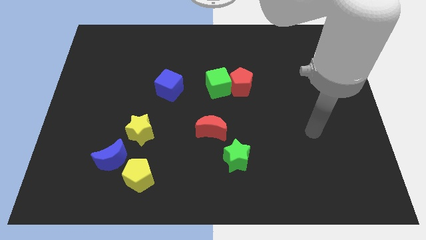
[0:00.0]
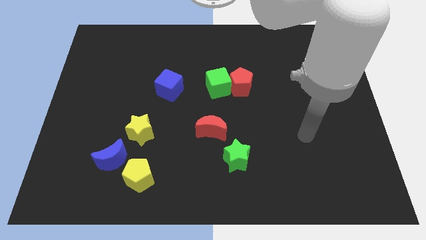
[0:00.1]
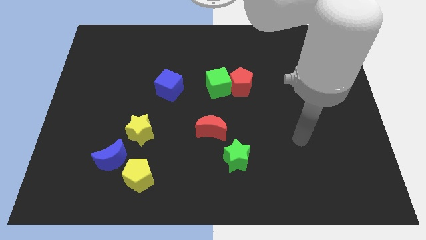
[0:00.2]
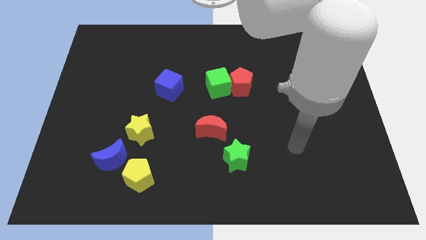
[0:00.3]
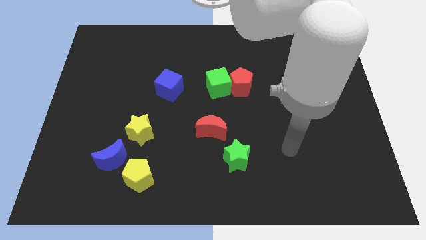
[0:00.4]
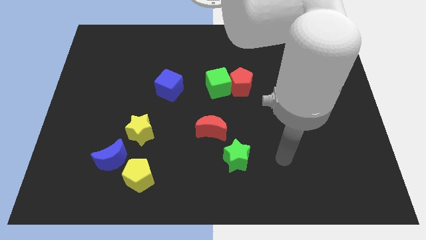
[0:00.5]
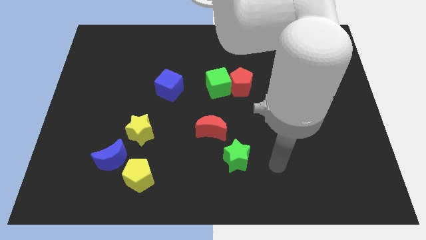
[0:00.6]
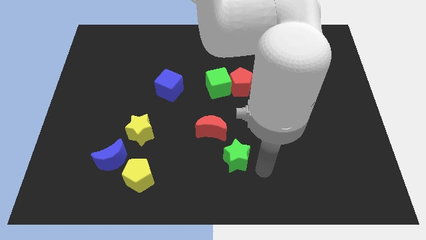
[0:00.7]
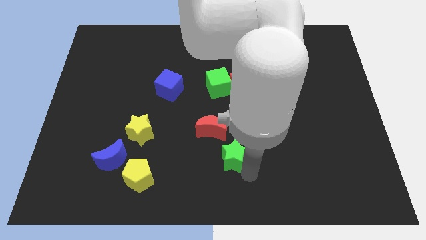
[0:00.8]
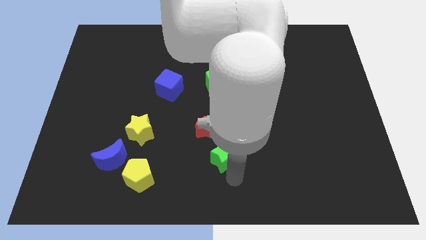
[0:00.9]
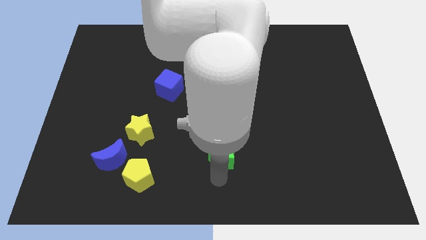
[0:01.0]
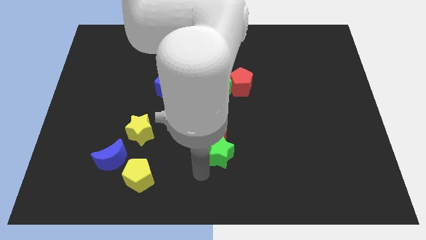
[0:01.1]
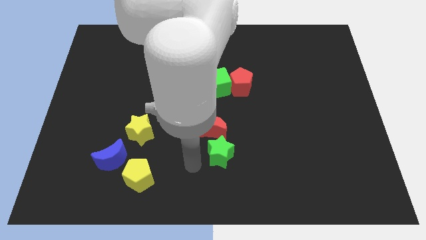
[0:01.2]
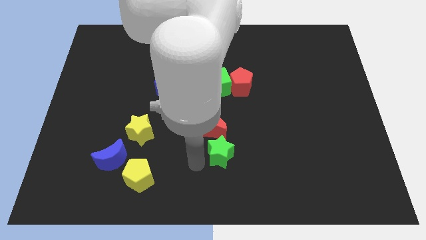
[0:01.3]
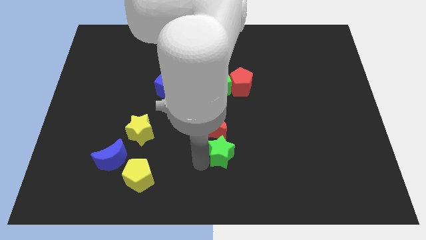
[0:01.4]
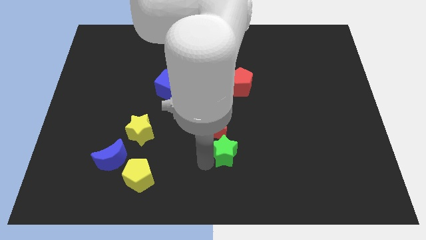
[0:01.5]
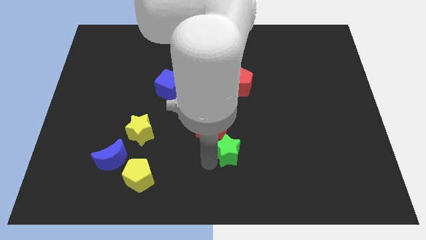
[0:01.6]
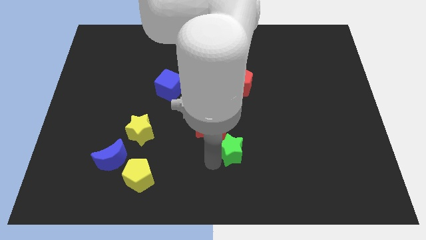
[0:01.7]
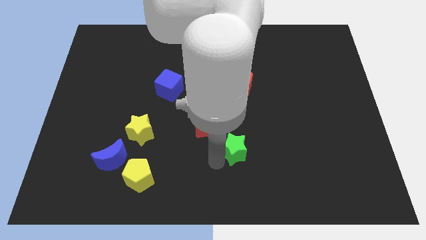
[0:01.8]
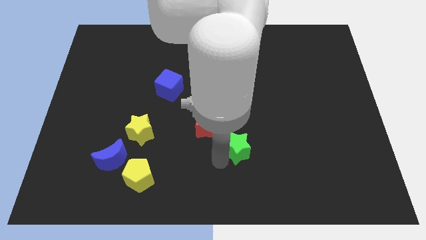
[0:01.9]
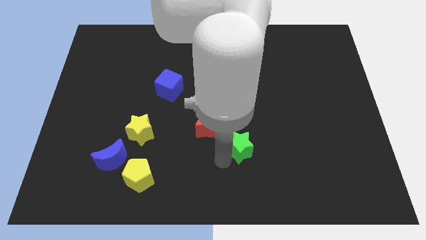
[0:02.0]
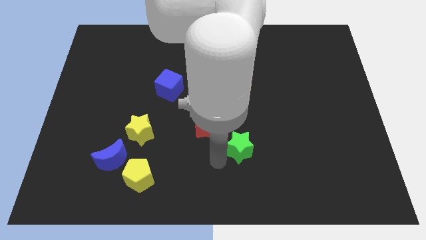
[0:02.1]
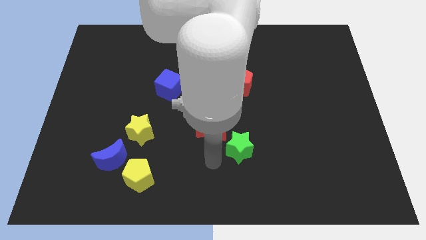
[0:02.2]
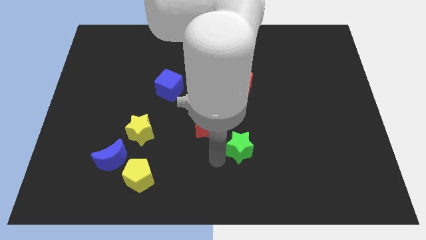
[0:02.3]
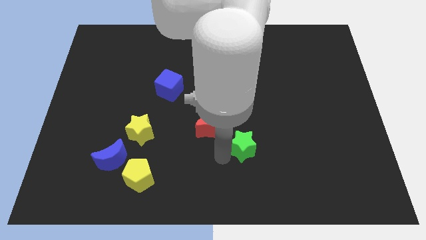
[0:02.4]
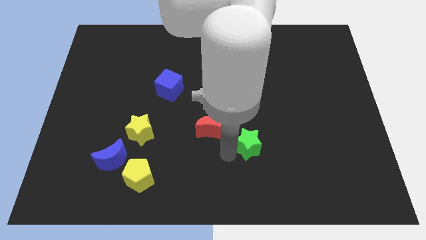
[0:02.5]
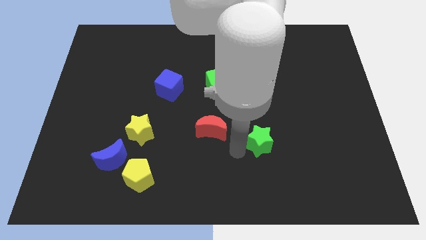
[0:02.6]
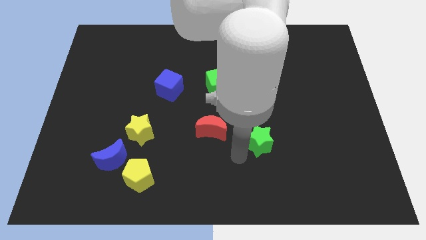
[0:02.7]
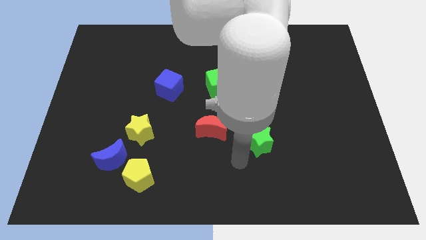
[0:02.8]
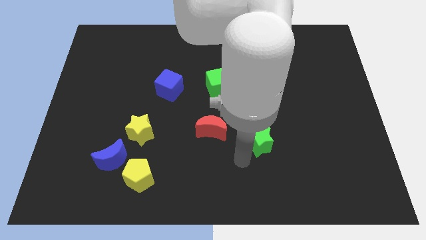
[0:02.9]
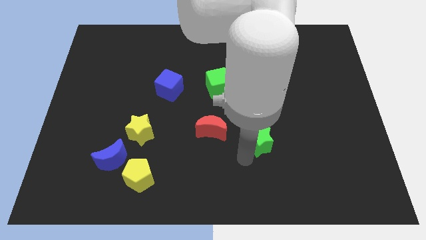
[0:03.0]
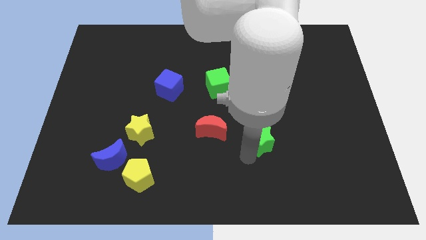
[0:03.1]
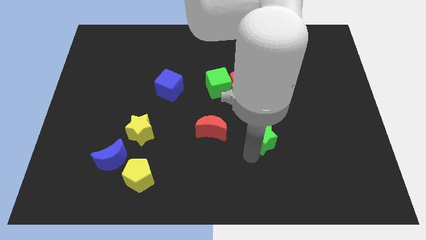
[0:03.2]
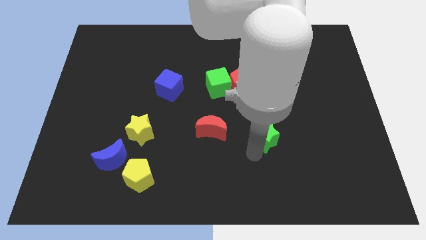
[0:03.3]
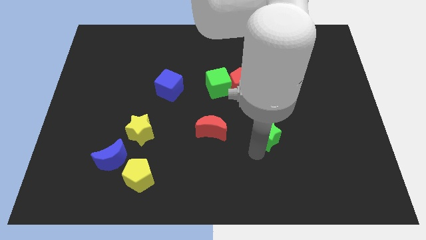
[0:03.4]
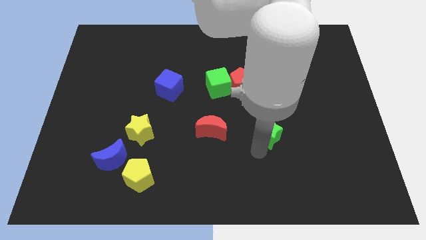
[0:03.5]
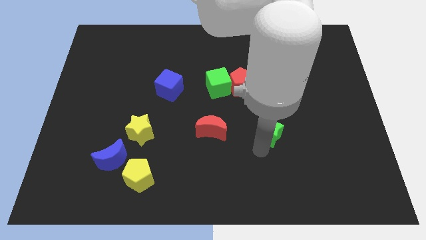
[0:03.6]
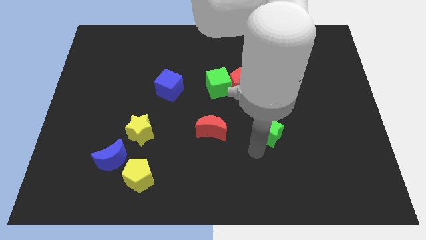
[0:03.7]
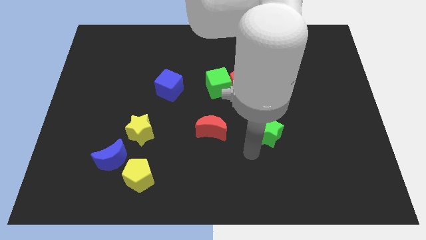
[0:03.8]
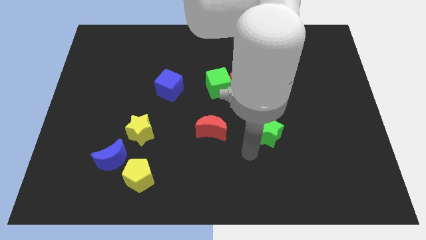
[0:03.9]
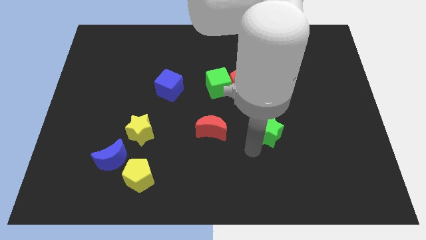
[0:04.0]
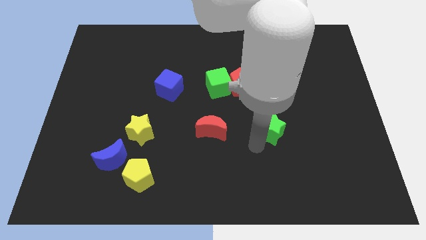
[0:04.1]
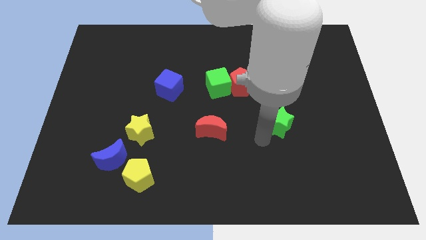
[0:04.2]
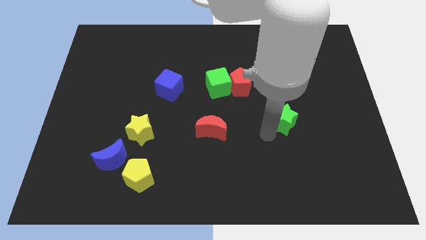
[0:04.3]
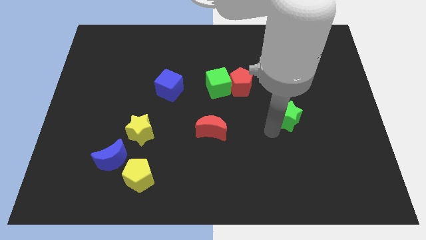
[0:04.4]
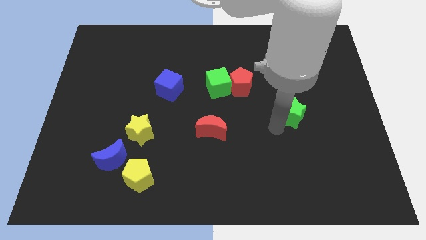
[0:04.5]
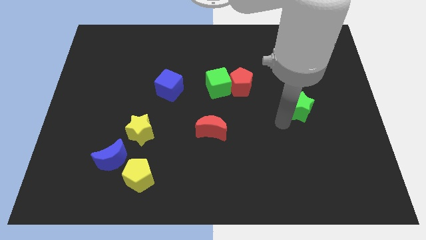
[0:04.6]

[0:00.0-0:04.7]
slide the green star diagonally upwards and to the right

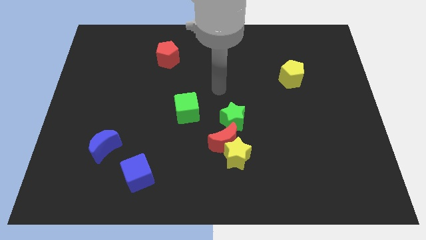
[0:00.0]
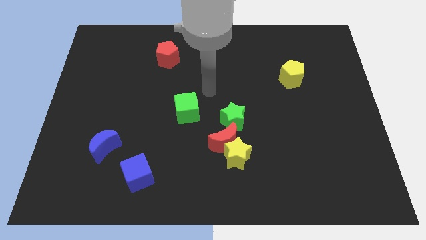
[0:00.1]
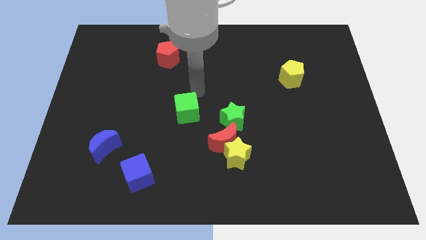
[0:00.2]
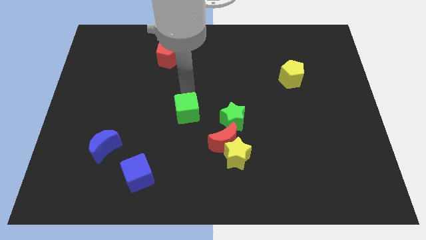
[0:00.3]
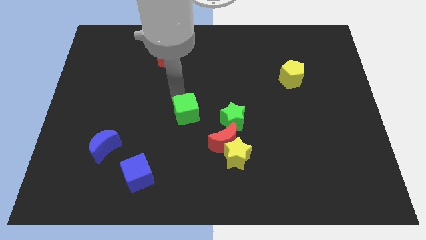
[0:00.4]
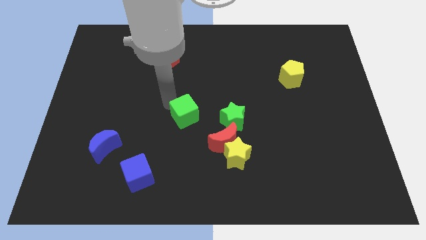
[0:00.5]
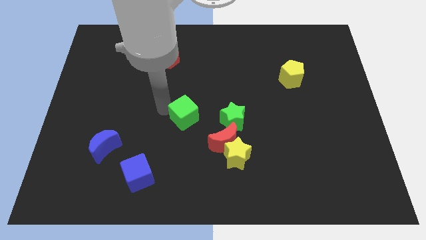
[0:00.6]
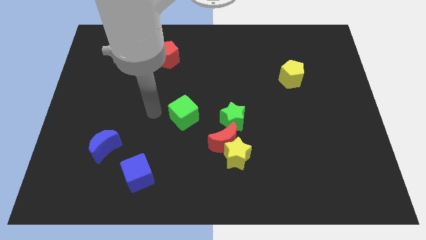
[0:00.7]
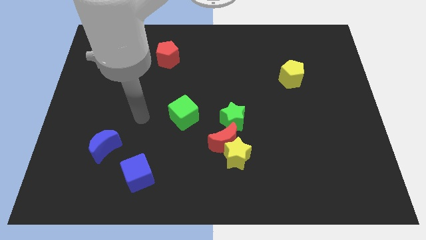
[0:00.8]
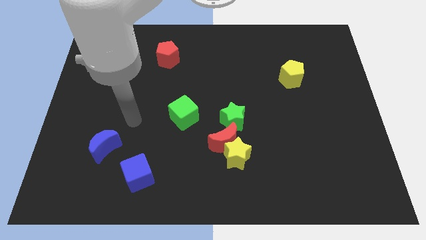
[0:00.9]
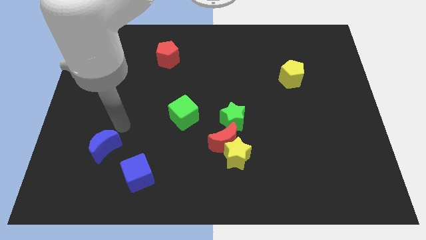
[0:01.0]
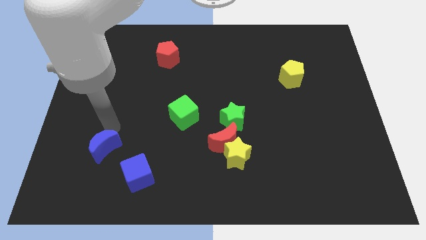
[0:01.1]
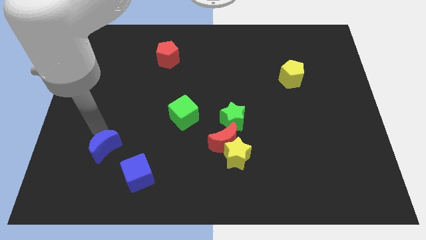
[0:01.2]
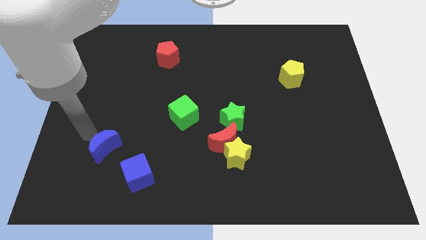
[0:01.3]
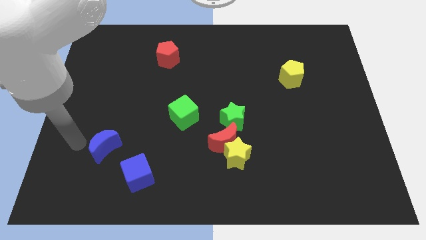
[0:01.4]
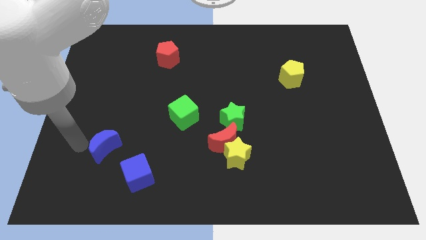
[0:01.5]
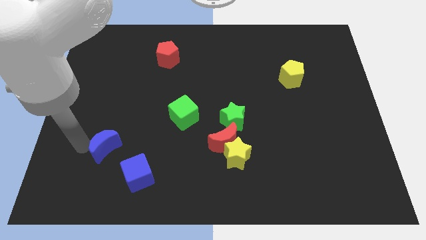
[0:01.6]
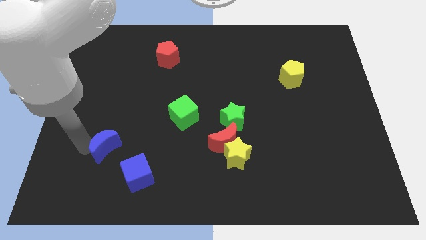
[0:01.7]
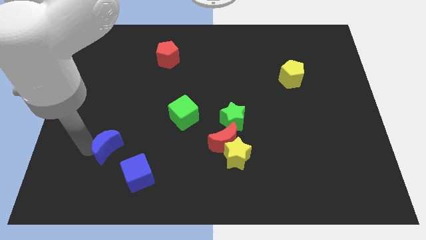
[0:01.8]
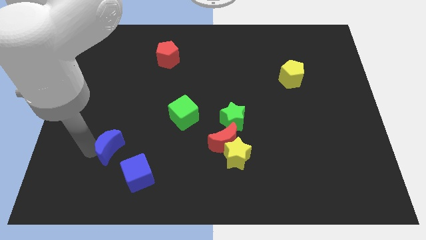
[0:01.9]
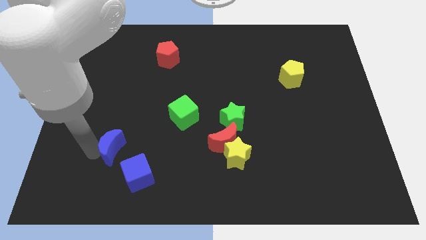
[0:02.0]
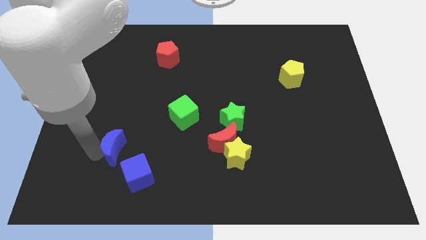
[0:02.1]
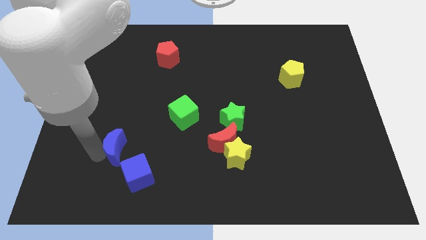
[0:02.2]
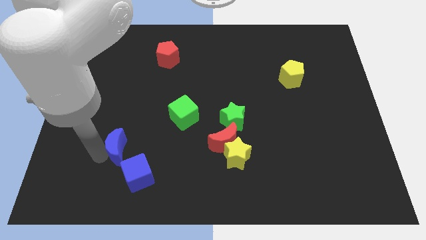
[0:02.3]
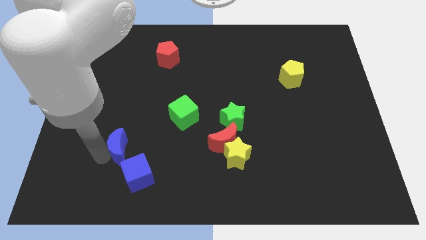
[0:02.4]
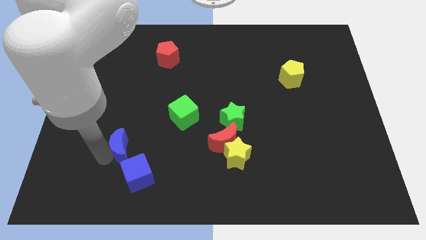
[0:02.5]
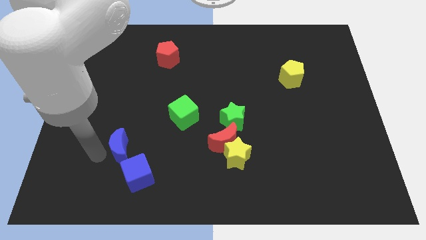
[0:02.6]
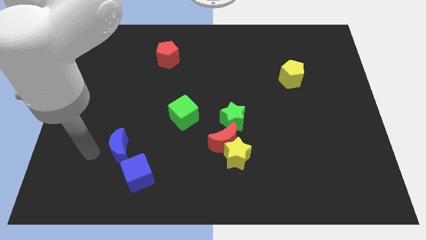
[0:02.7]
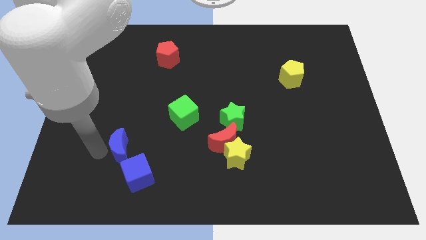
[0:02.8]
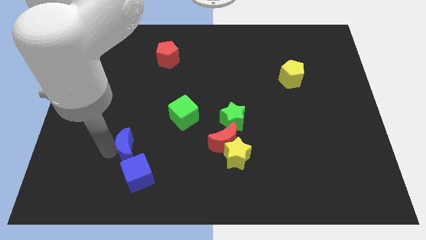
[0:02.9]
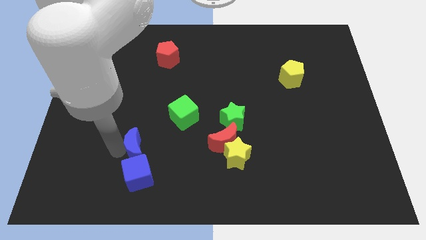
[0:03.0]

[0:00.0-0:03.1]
move the blue moon a little bit right

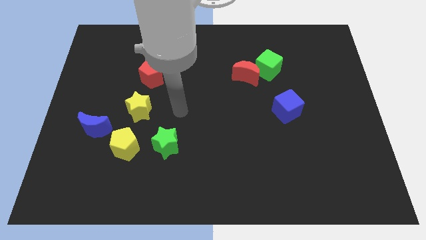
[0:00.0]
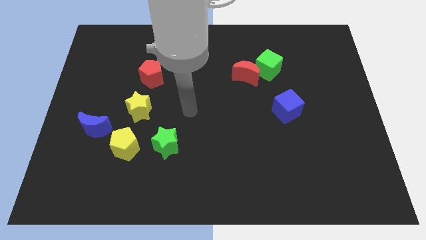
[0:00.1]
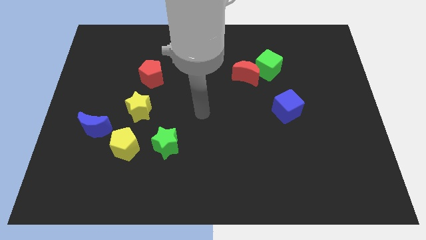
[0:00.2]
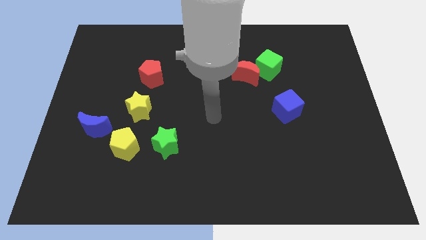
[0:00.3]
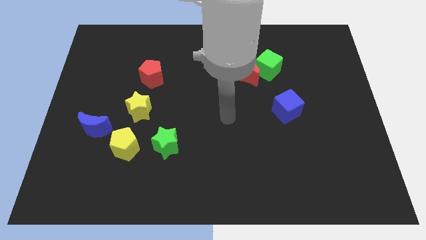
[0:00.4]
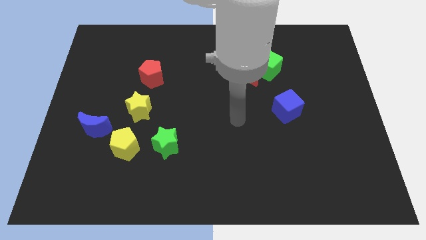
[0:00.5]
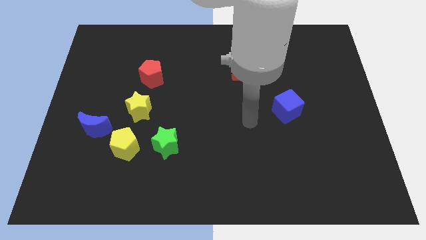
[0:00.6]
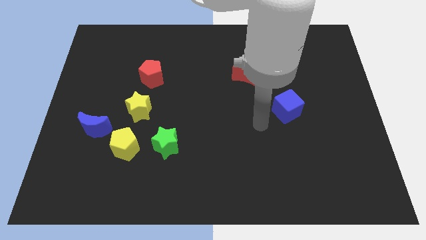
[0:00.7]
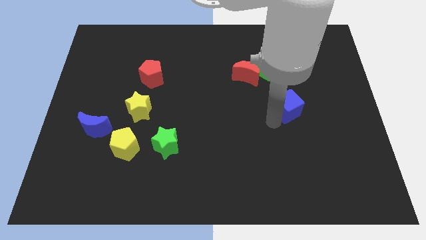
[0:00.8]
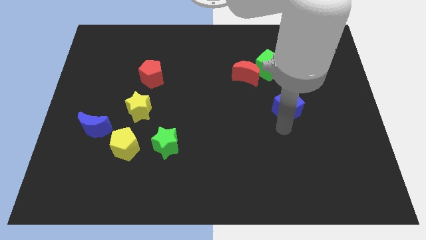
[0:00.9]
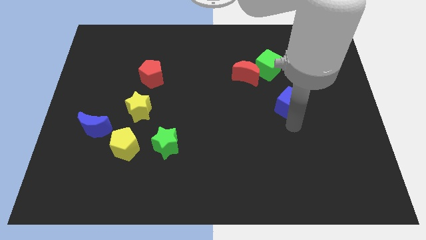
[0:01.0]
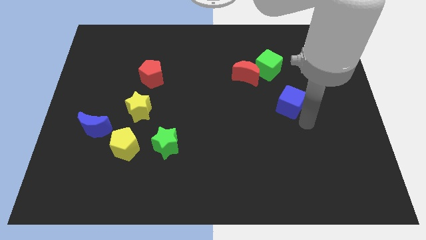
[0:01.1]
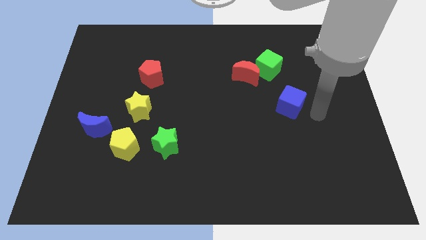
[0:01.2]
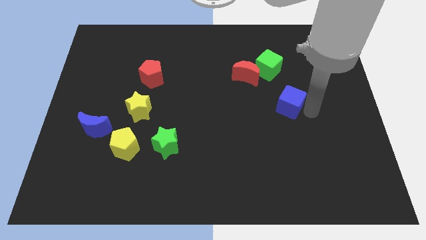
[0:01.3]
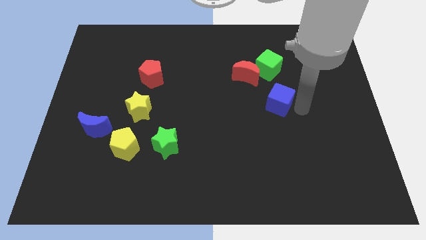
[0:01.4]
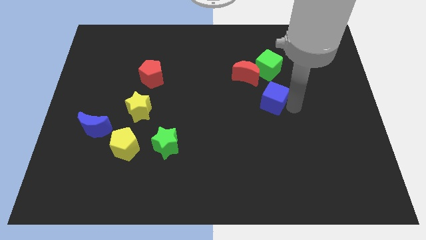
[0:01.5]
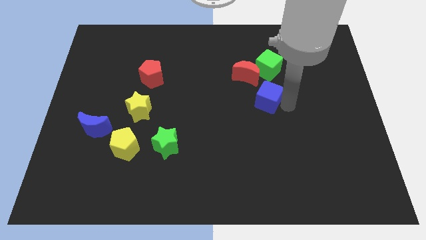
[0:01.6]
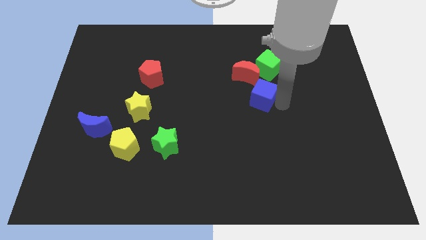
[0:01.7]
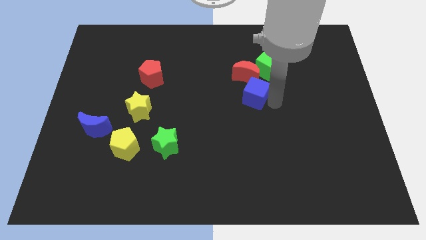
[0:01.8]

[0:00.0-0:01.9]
move the blue cube somewhat upwards and then to the left
